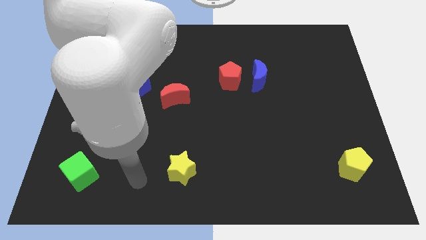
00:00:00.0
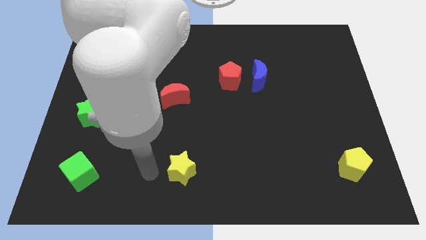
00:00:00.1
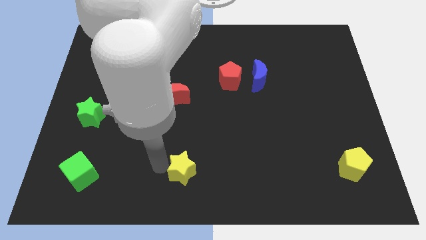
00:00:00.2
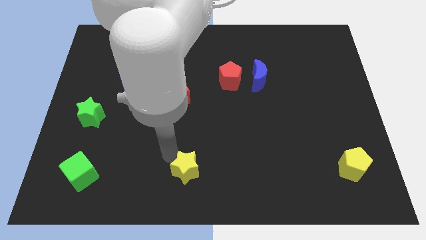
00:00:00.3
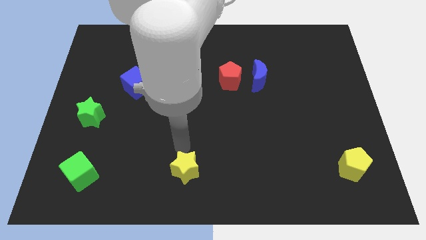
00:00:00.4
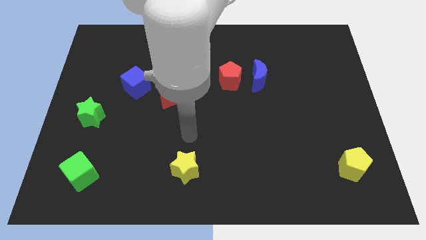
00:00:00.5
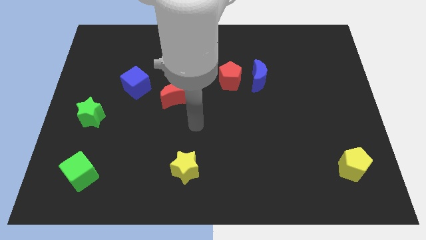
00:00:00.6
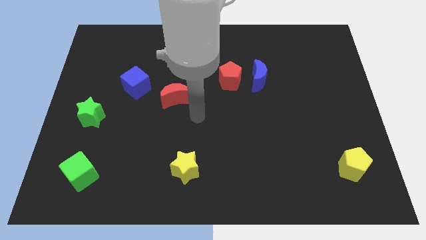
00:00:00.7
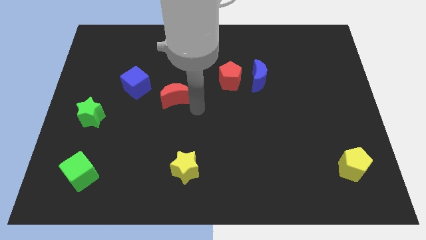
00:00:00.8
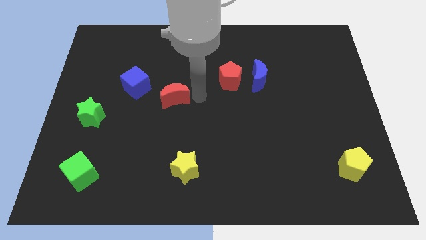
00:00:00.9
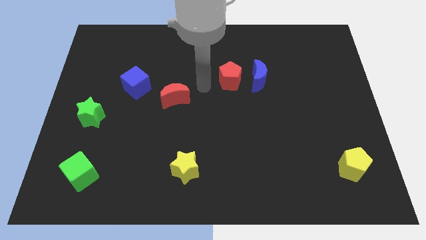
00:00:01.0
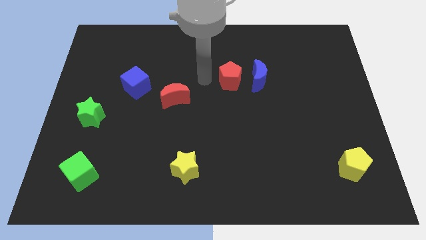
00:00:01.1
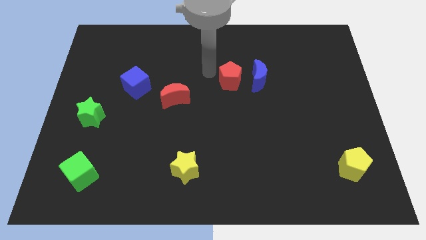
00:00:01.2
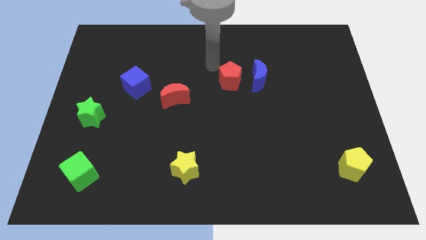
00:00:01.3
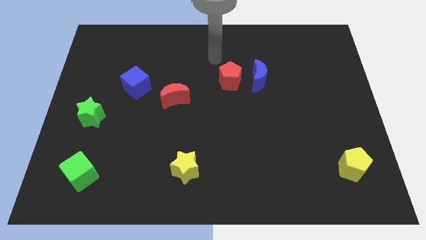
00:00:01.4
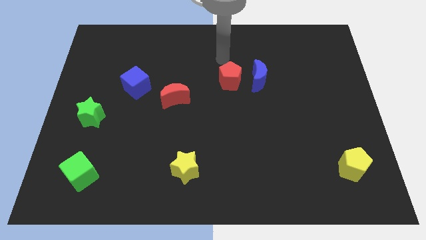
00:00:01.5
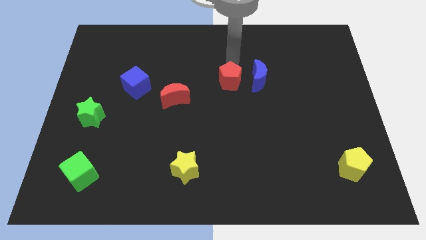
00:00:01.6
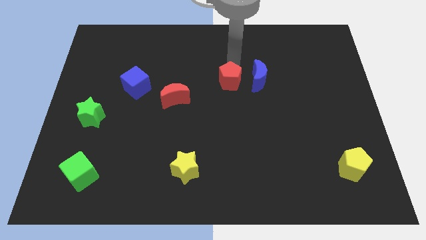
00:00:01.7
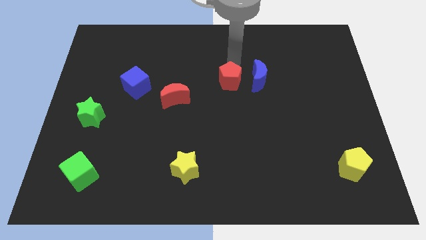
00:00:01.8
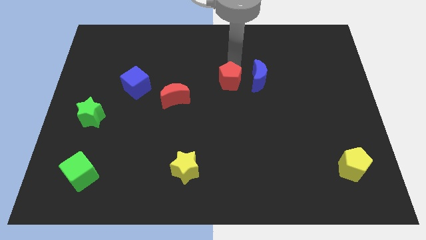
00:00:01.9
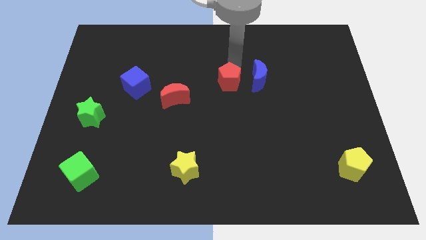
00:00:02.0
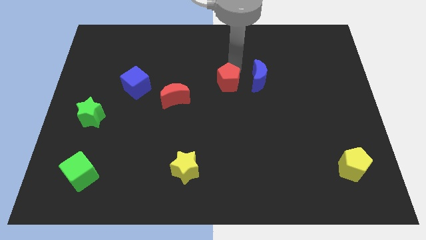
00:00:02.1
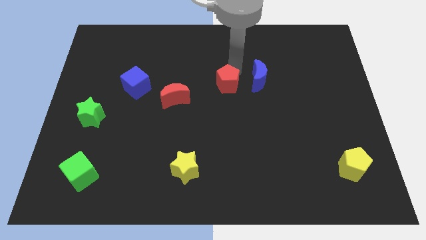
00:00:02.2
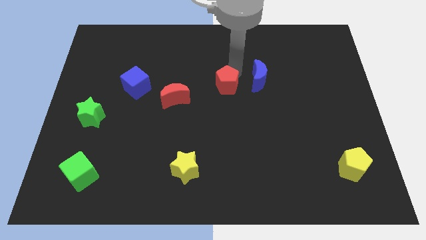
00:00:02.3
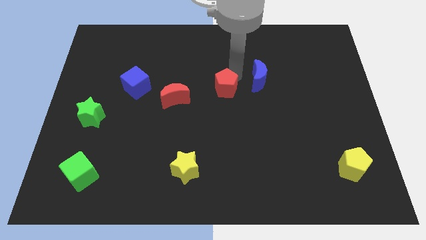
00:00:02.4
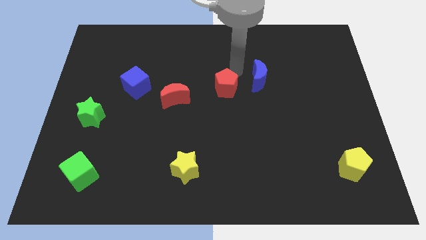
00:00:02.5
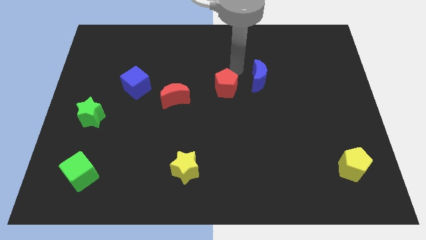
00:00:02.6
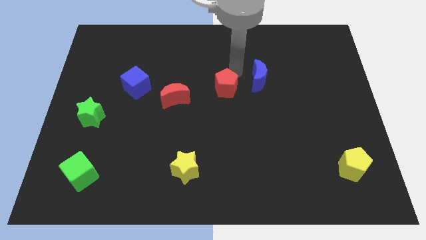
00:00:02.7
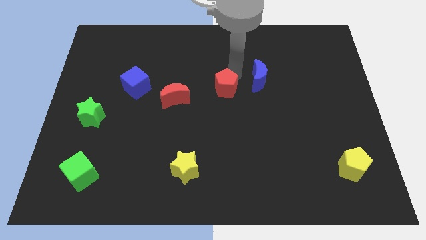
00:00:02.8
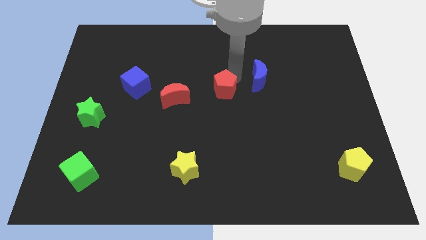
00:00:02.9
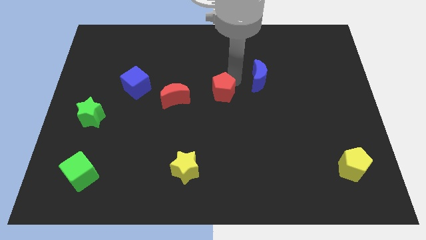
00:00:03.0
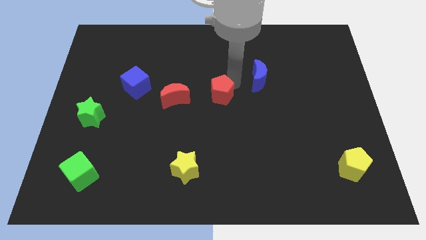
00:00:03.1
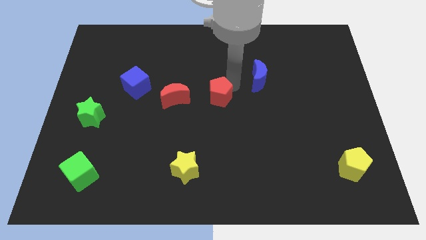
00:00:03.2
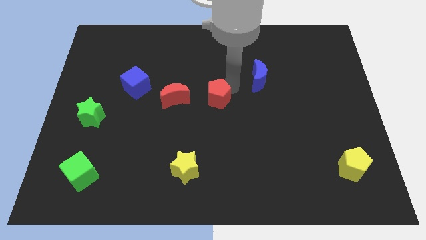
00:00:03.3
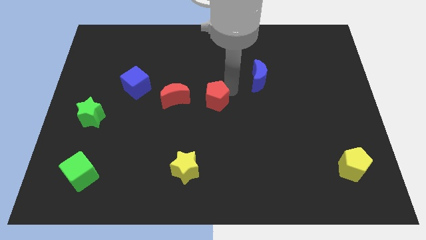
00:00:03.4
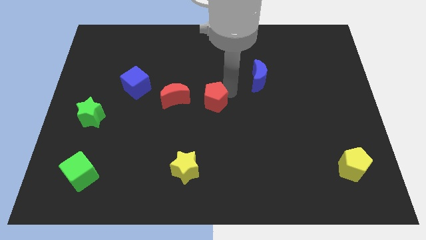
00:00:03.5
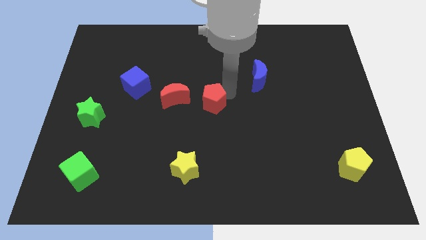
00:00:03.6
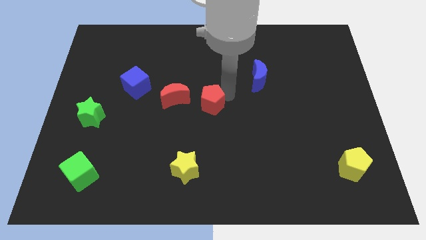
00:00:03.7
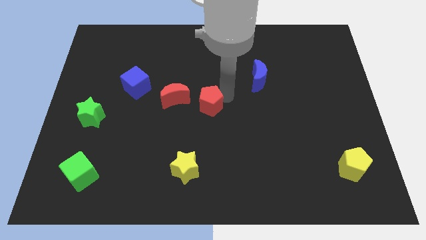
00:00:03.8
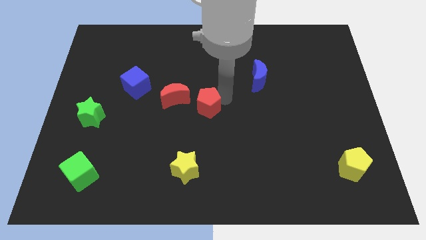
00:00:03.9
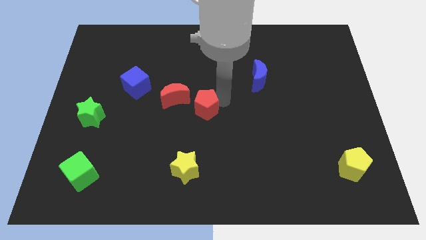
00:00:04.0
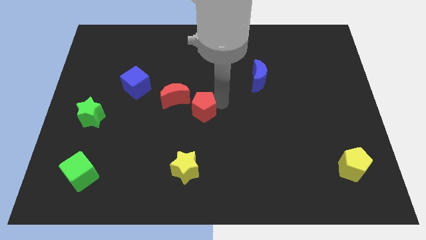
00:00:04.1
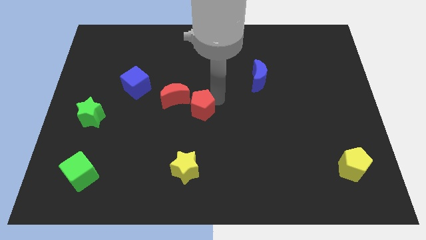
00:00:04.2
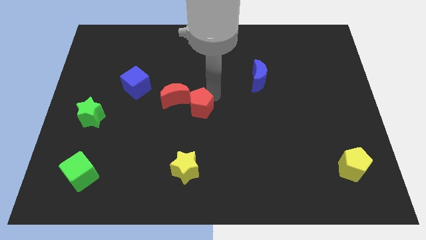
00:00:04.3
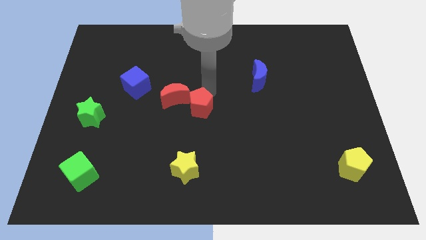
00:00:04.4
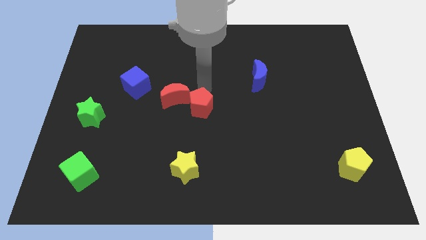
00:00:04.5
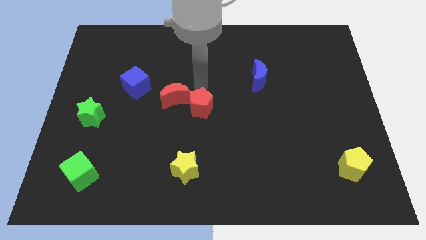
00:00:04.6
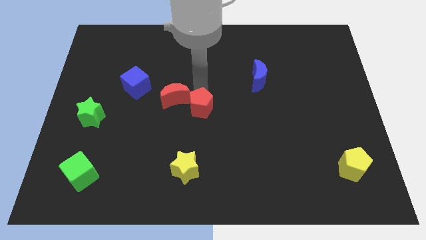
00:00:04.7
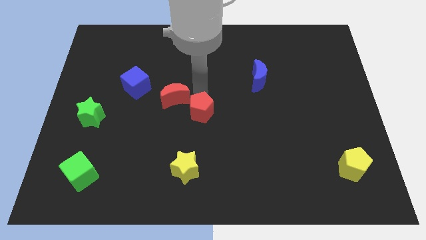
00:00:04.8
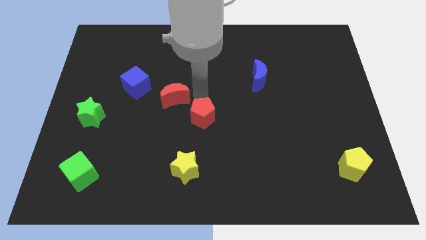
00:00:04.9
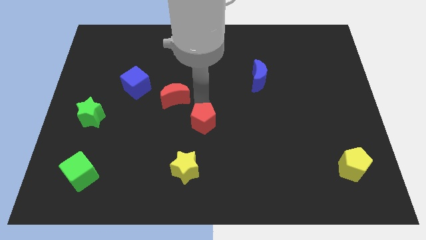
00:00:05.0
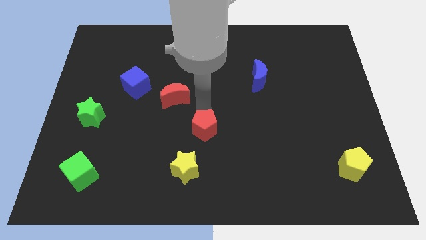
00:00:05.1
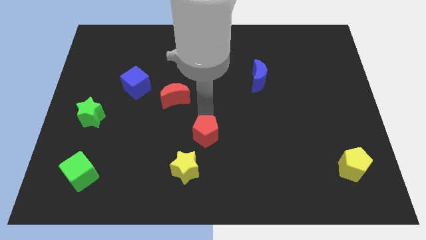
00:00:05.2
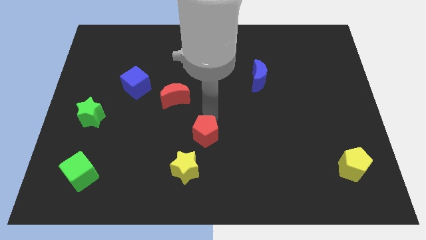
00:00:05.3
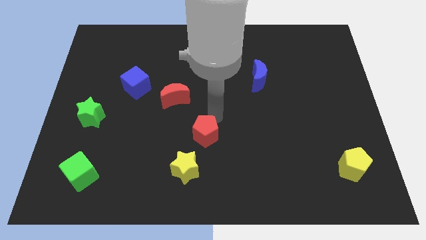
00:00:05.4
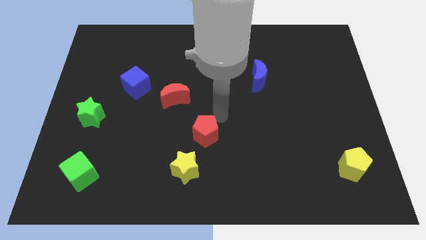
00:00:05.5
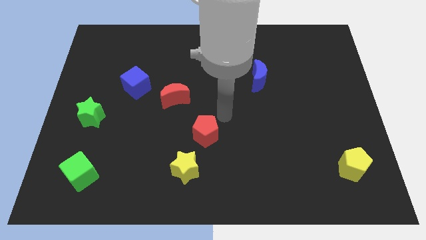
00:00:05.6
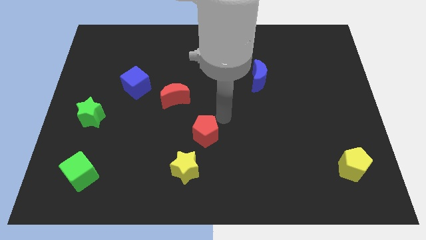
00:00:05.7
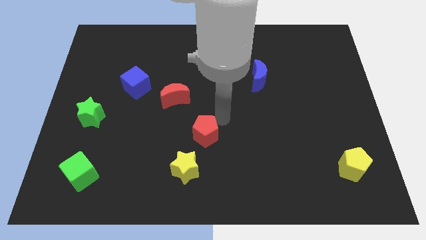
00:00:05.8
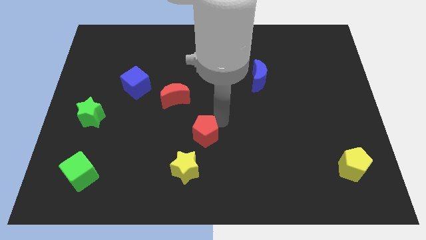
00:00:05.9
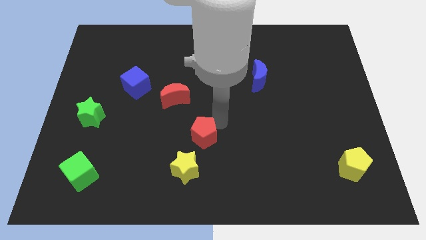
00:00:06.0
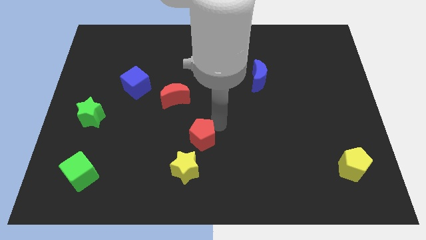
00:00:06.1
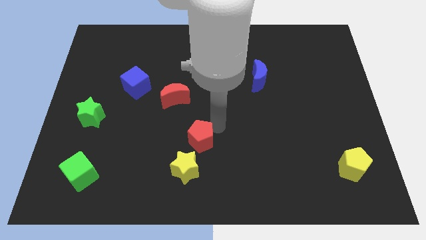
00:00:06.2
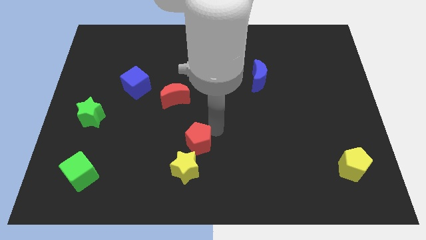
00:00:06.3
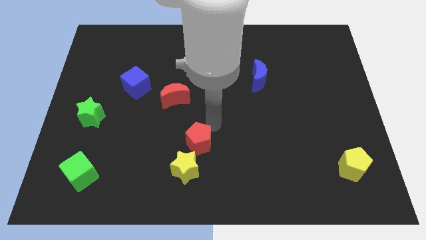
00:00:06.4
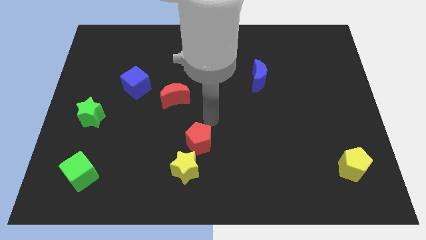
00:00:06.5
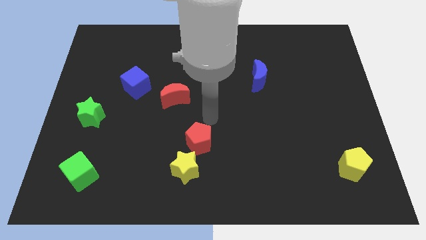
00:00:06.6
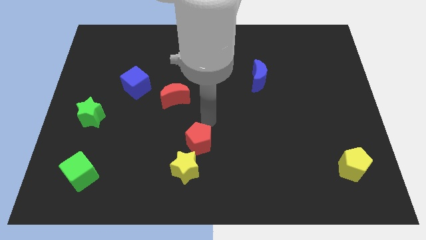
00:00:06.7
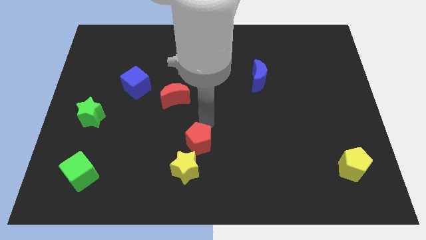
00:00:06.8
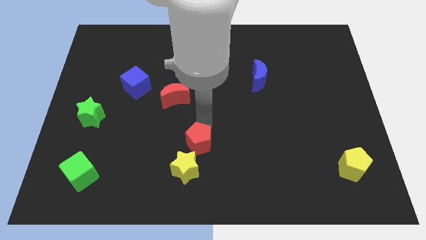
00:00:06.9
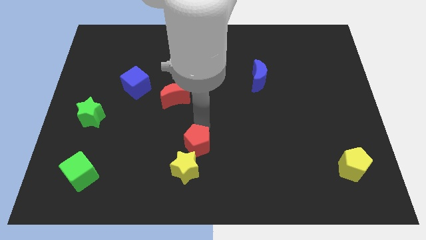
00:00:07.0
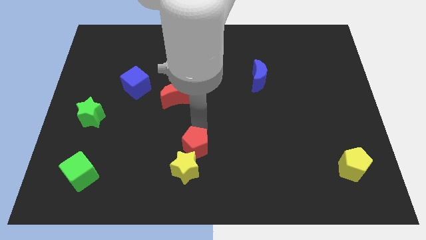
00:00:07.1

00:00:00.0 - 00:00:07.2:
move the red pentagon close to the yellow star

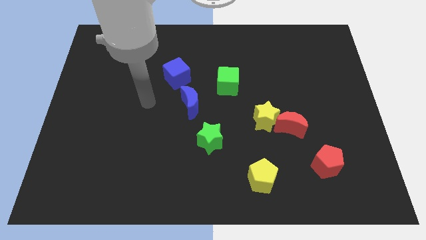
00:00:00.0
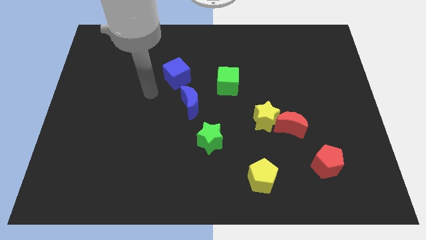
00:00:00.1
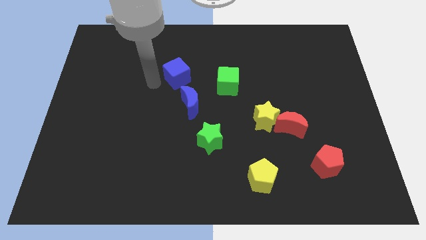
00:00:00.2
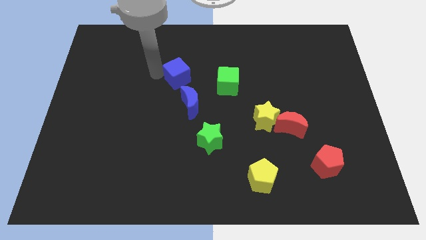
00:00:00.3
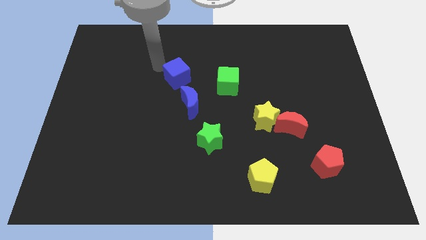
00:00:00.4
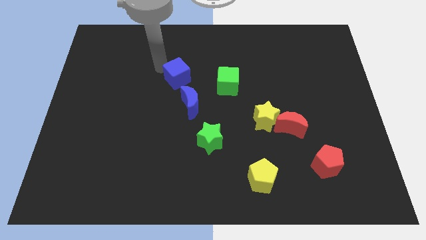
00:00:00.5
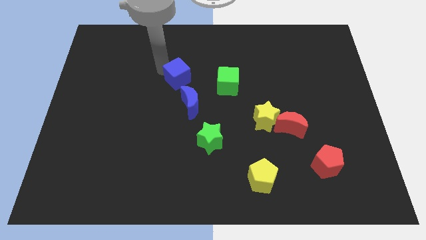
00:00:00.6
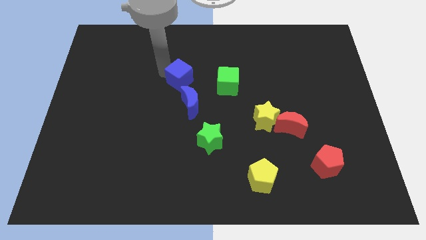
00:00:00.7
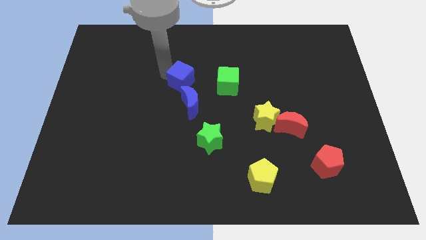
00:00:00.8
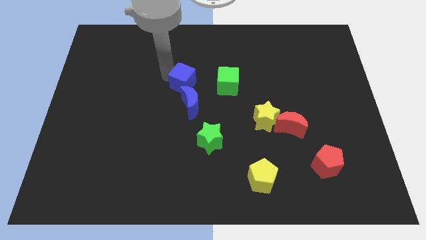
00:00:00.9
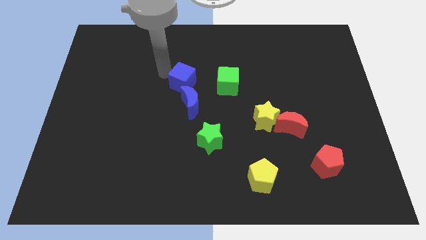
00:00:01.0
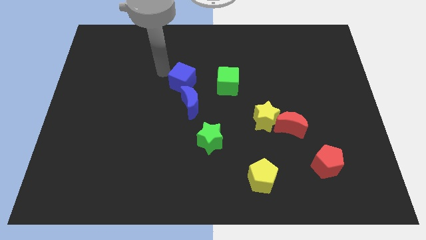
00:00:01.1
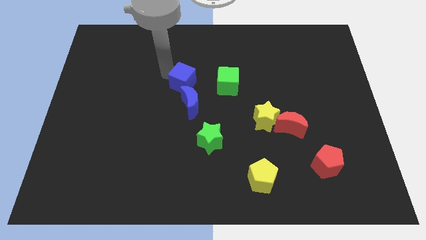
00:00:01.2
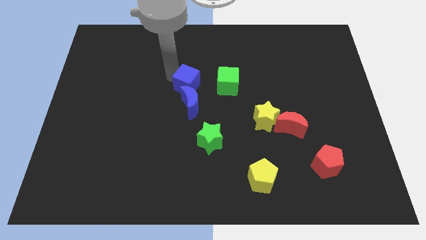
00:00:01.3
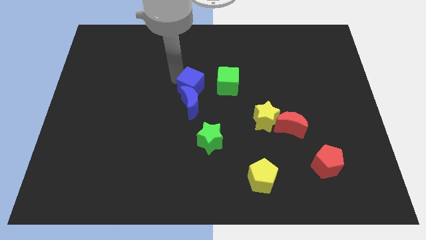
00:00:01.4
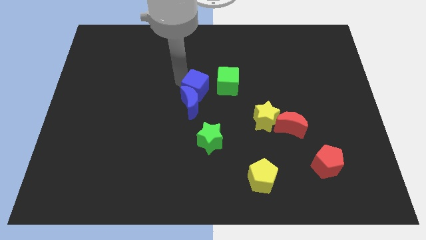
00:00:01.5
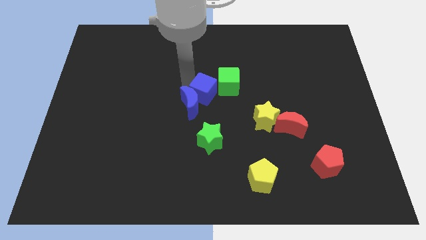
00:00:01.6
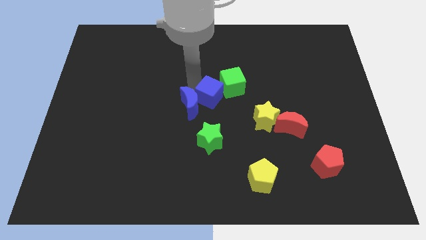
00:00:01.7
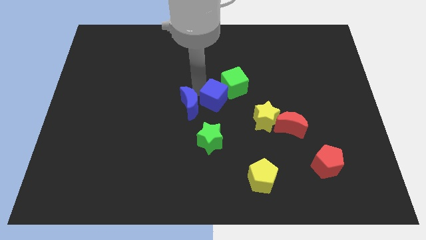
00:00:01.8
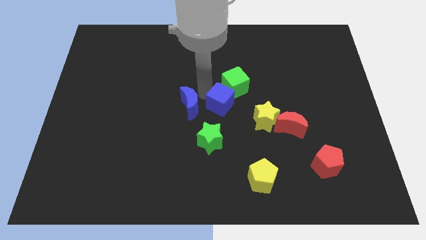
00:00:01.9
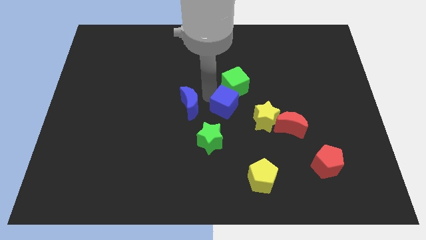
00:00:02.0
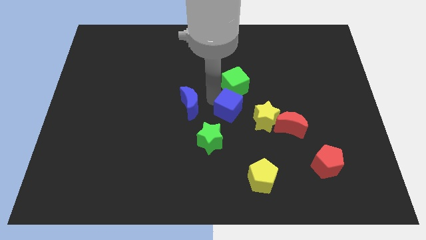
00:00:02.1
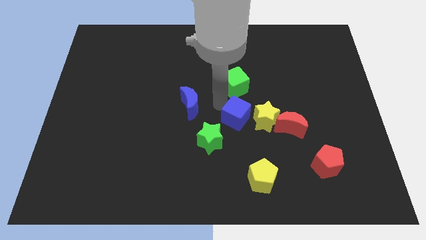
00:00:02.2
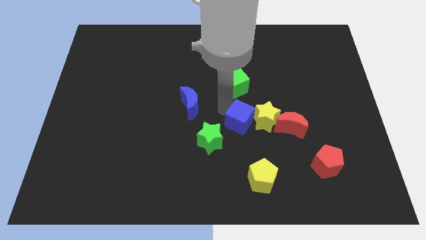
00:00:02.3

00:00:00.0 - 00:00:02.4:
move the blue cube to the yellow star
